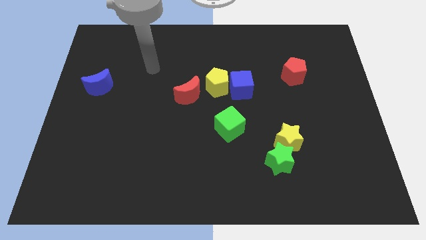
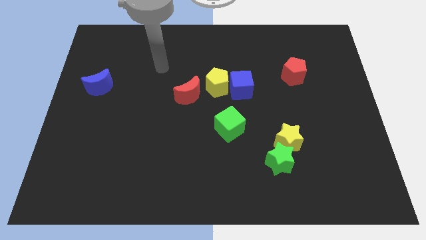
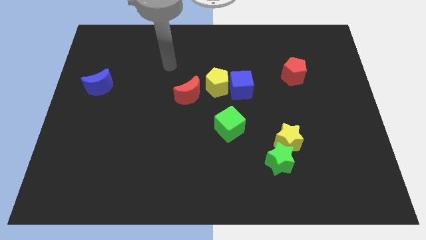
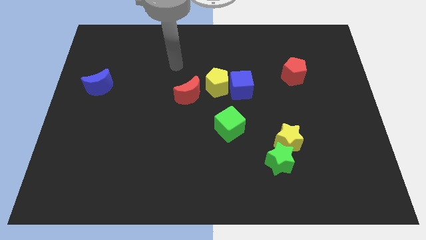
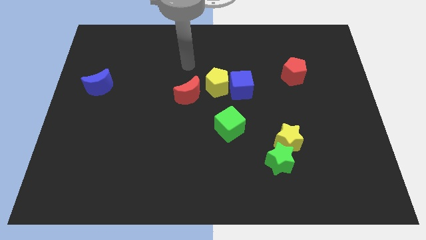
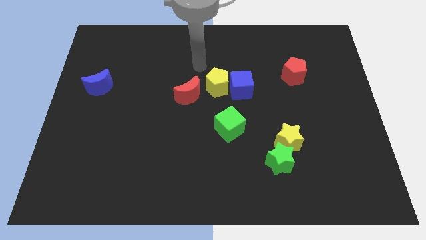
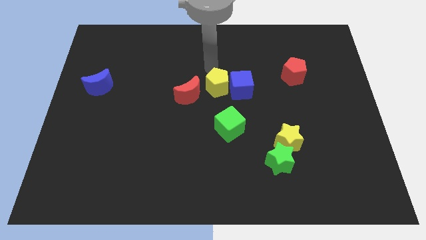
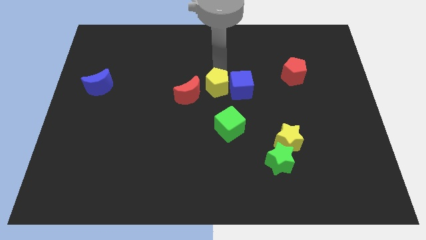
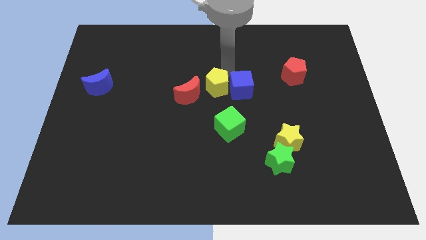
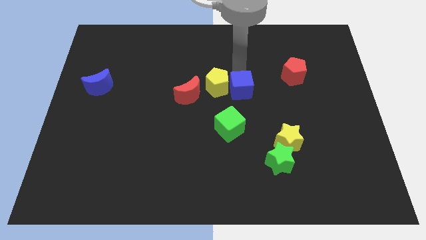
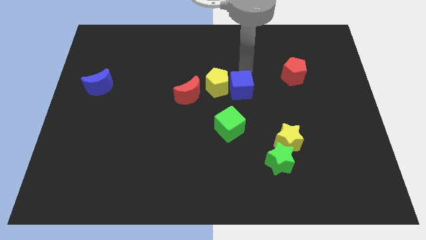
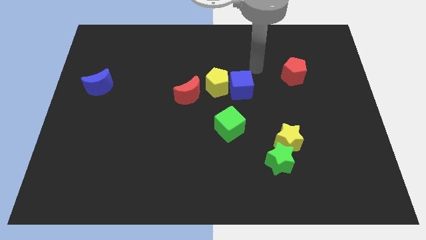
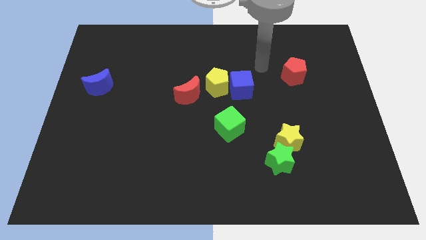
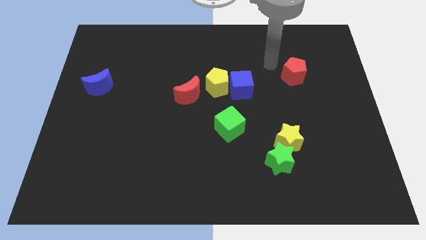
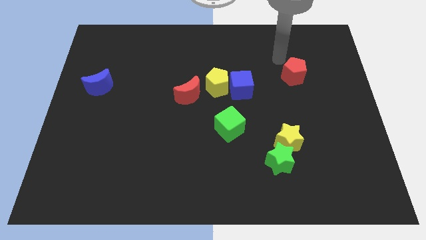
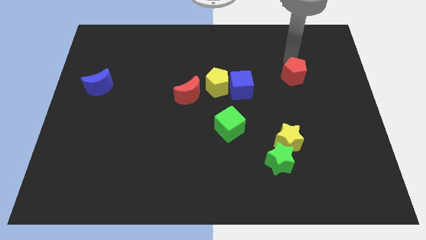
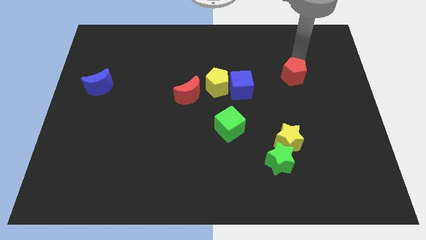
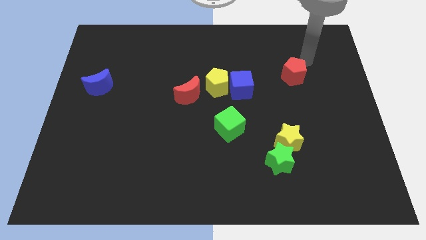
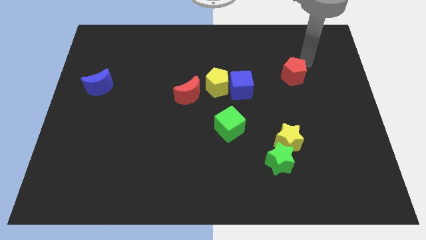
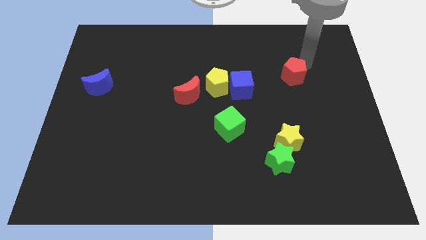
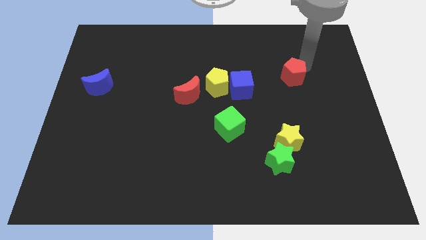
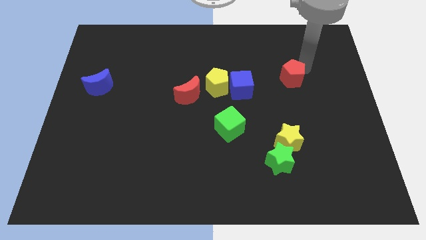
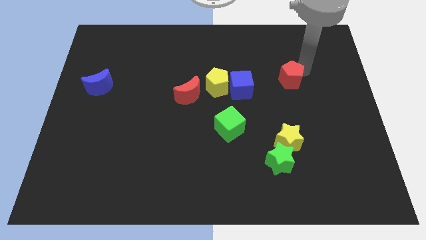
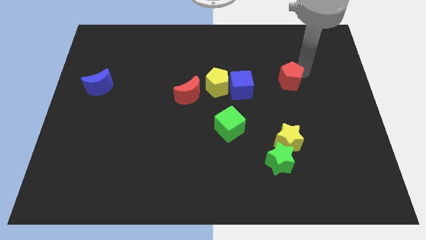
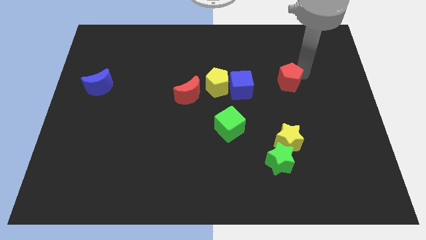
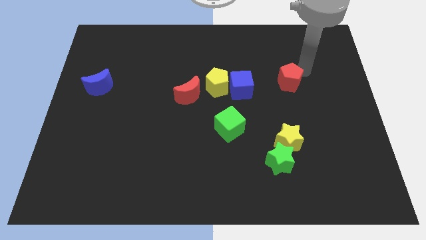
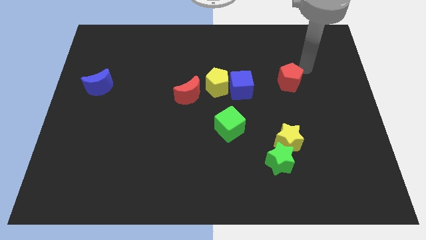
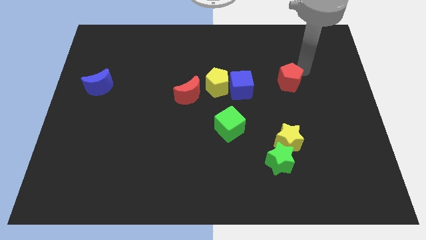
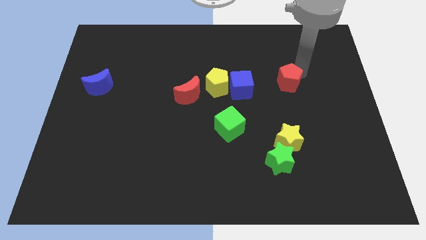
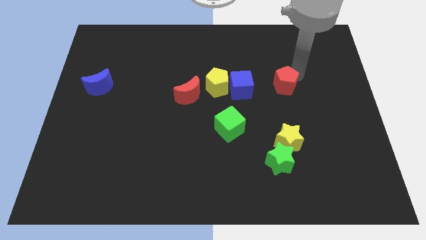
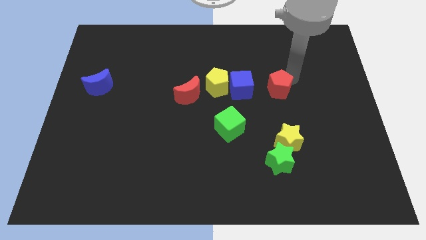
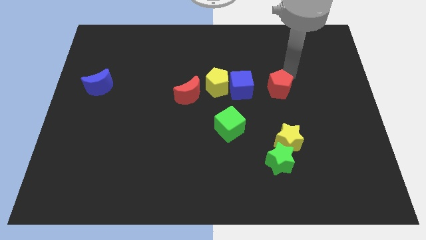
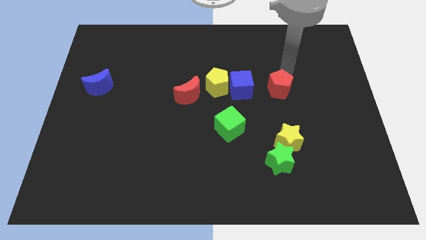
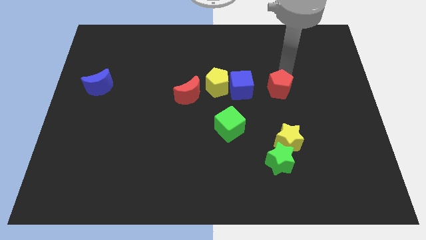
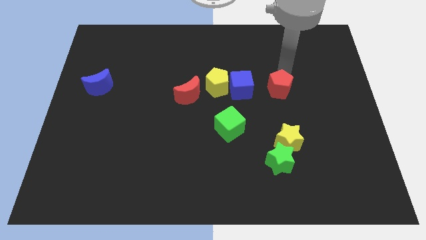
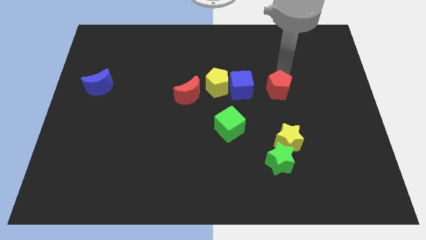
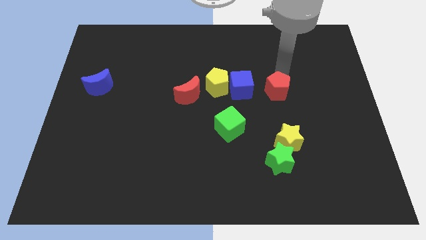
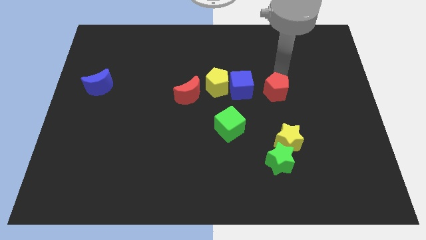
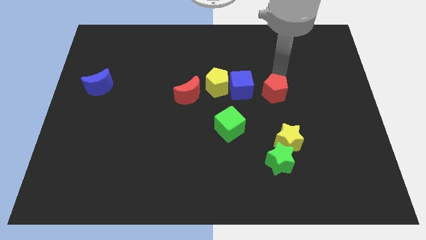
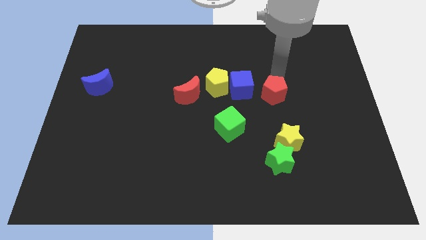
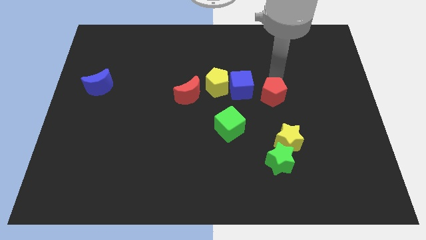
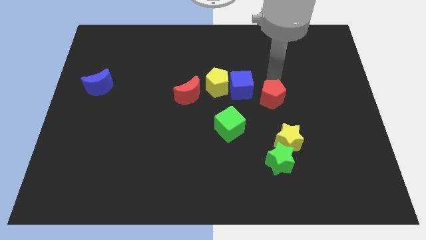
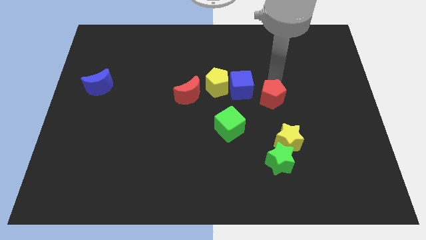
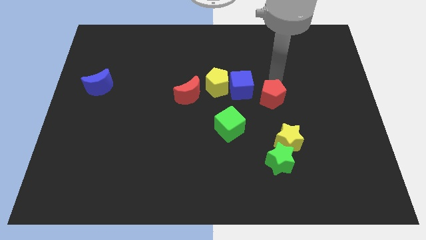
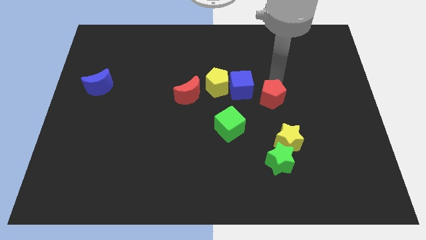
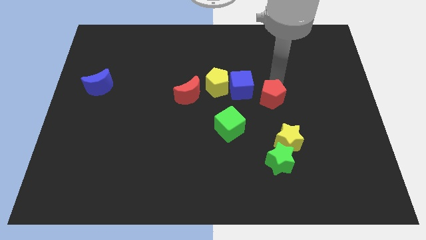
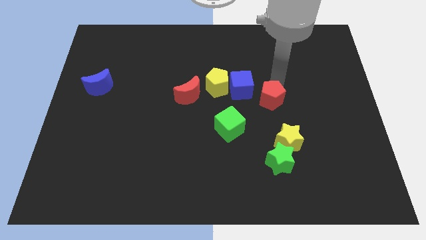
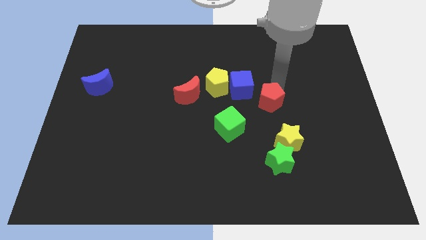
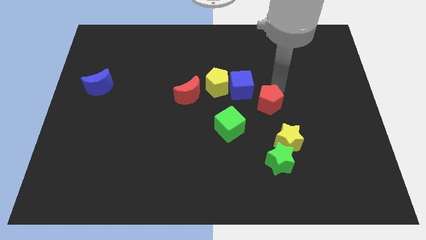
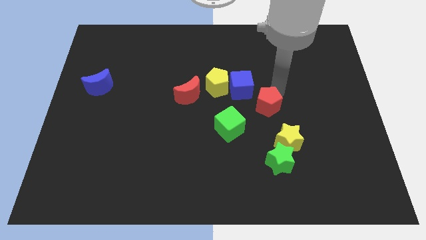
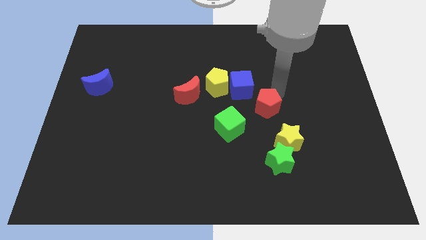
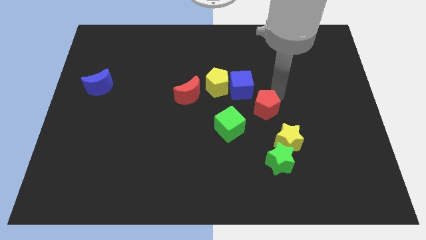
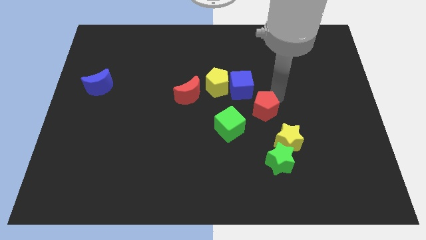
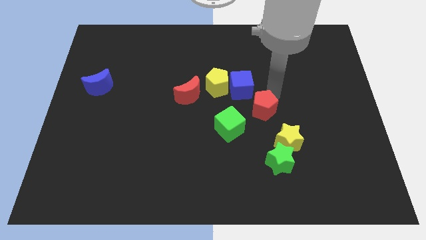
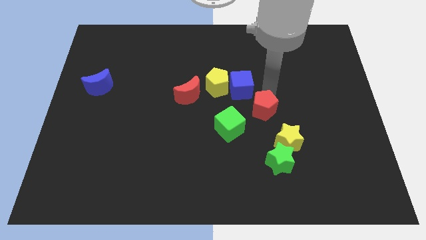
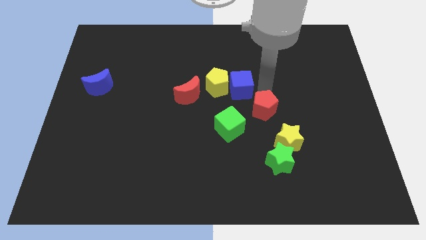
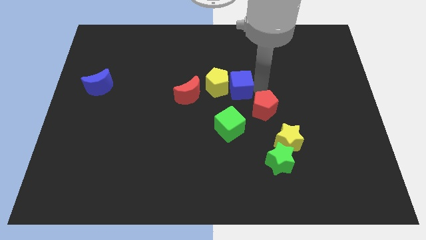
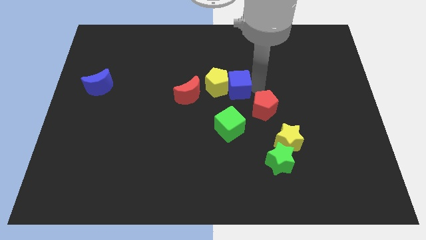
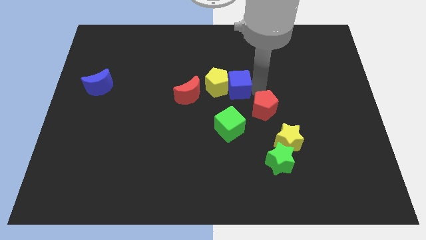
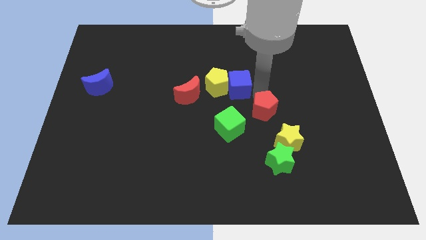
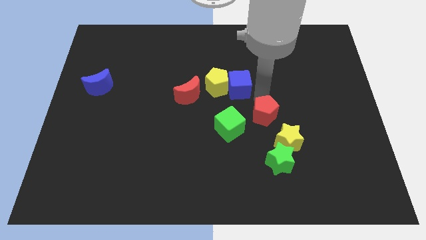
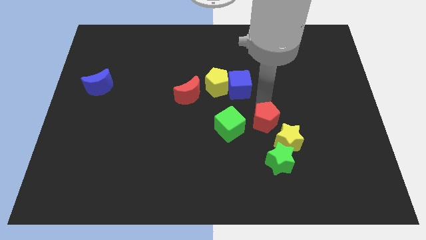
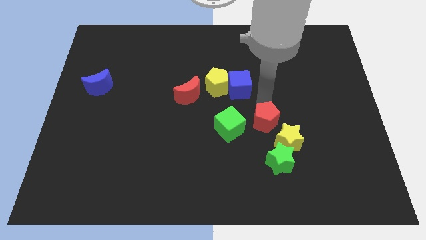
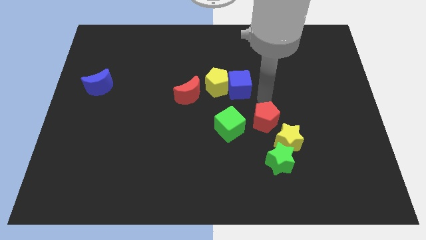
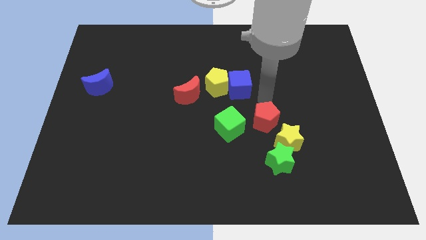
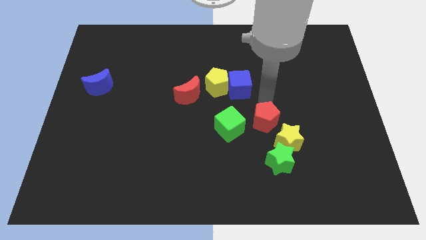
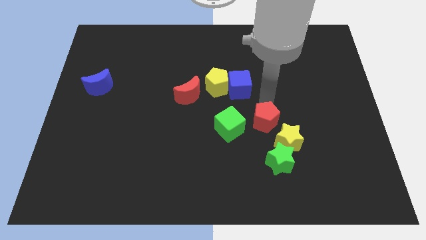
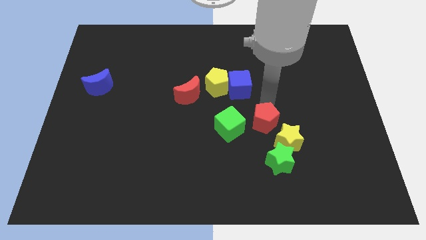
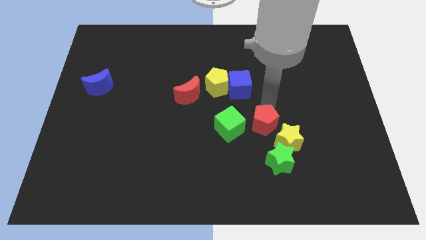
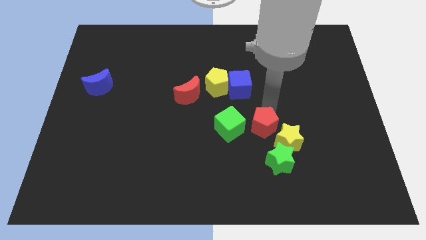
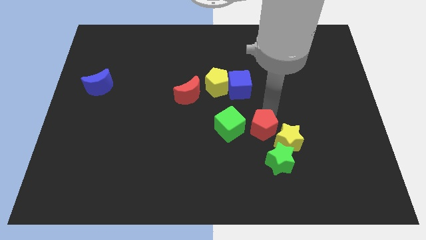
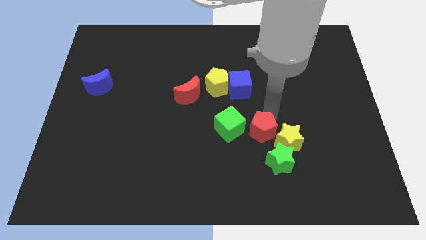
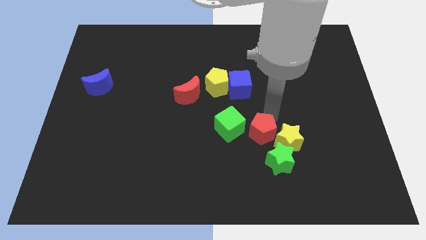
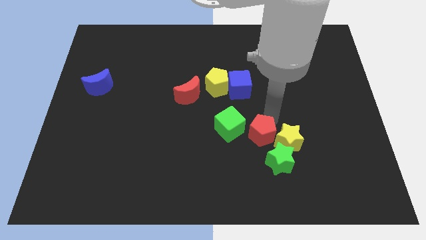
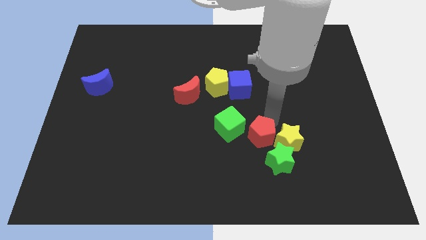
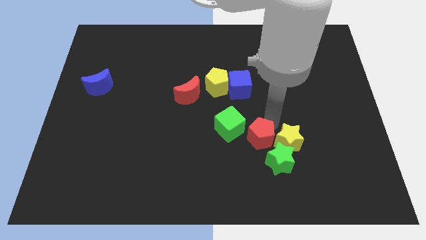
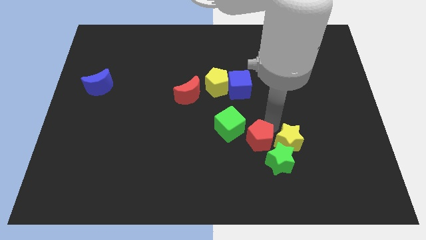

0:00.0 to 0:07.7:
slide the red pentagon diagonally down and to the left of the yellow star
